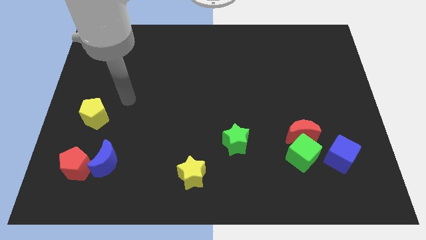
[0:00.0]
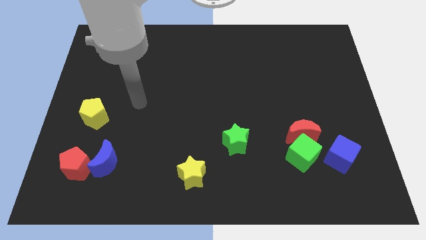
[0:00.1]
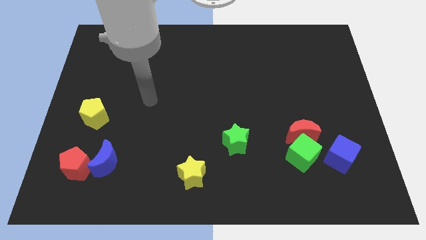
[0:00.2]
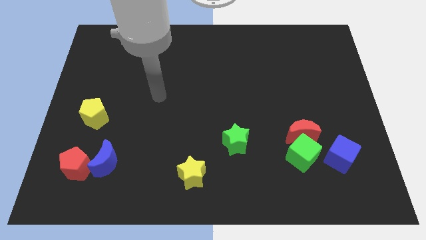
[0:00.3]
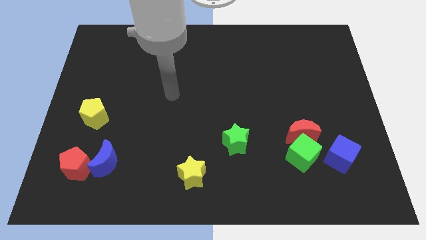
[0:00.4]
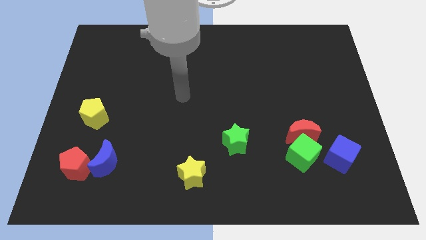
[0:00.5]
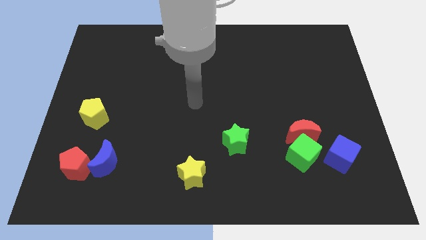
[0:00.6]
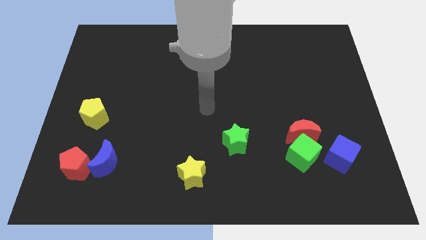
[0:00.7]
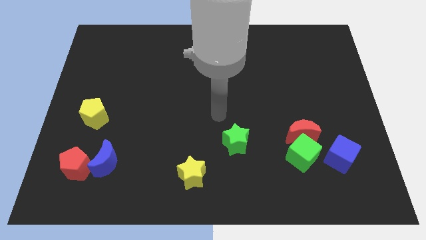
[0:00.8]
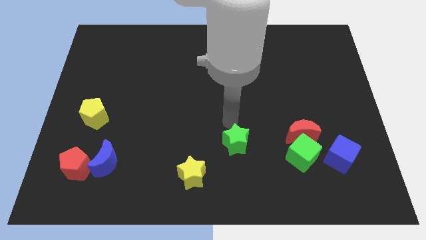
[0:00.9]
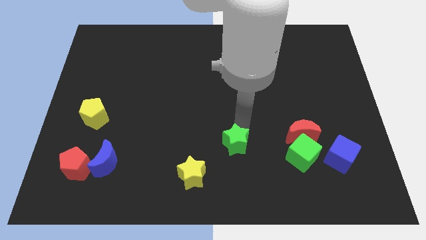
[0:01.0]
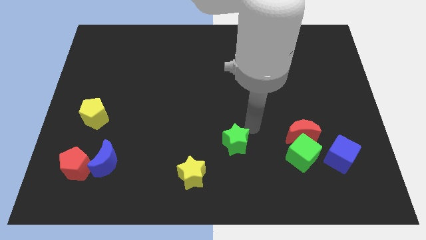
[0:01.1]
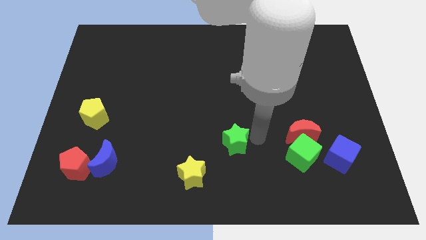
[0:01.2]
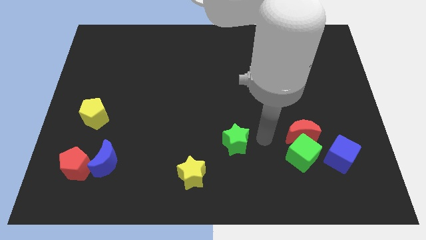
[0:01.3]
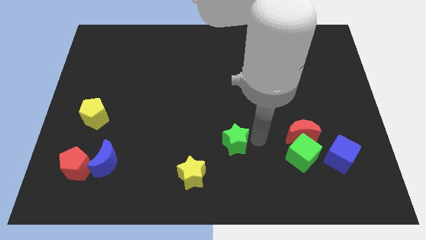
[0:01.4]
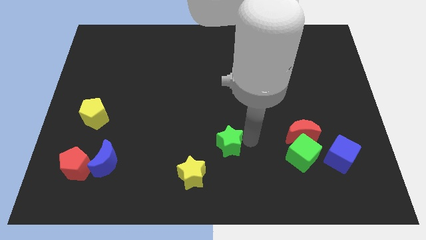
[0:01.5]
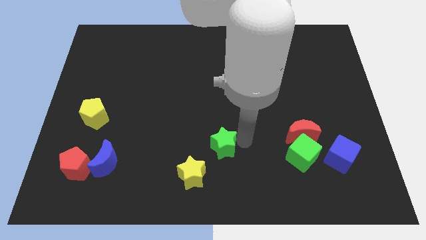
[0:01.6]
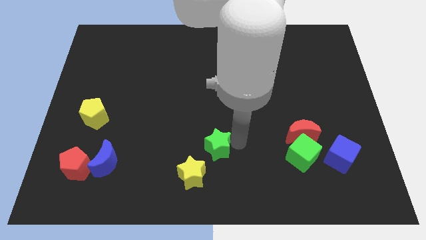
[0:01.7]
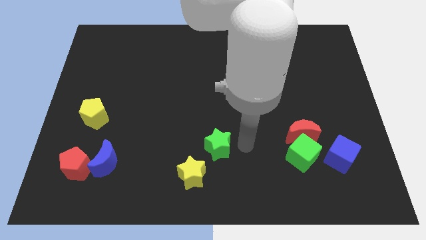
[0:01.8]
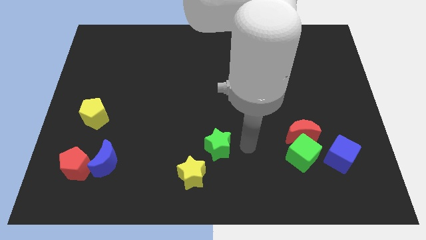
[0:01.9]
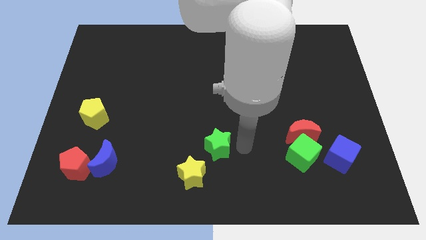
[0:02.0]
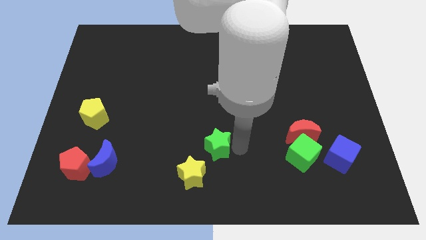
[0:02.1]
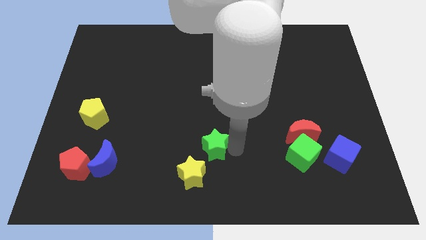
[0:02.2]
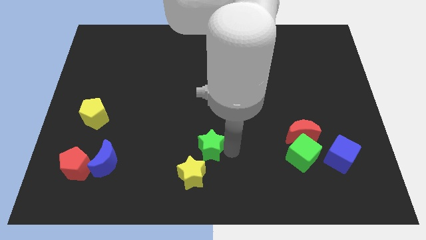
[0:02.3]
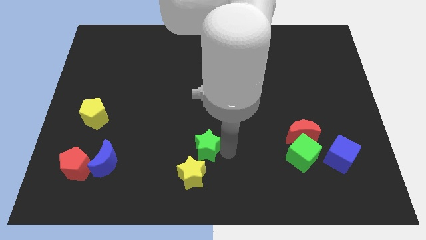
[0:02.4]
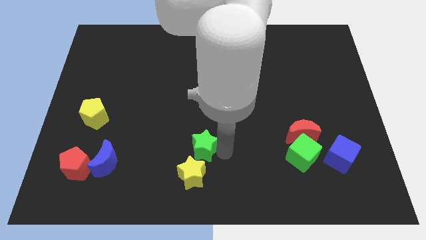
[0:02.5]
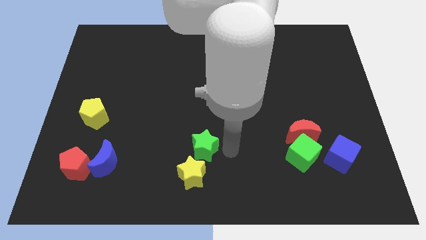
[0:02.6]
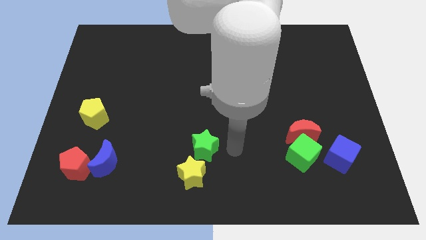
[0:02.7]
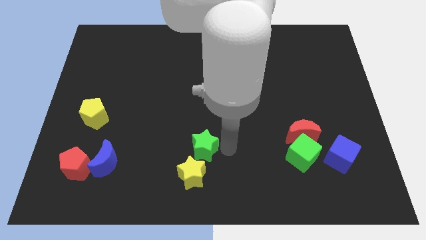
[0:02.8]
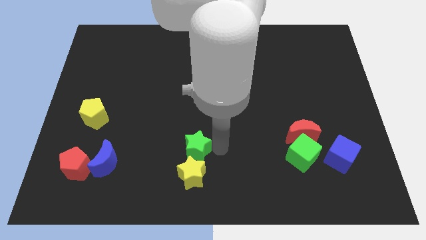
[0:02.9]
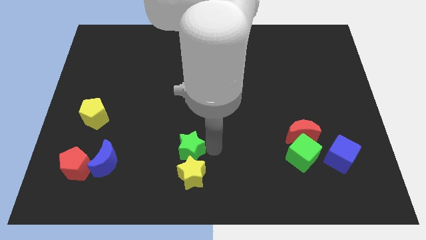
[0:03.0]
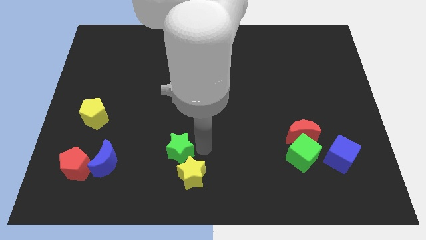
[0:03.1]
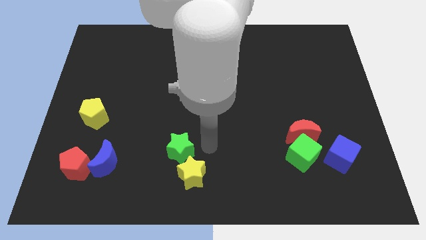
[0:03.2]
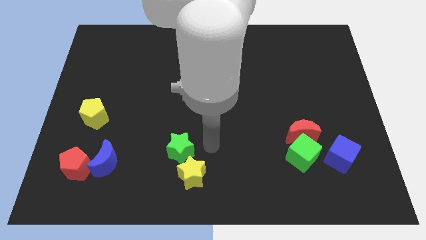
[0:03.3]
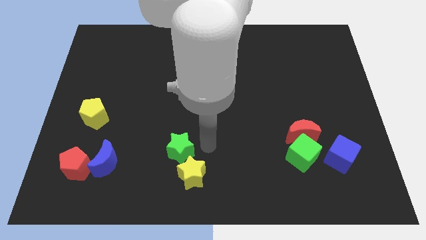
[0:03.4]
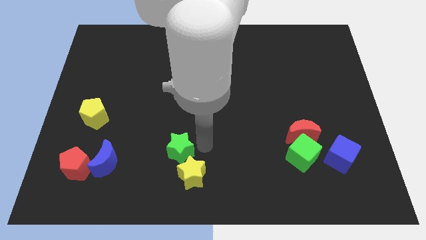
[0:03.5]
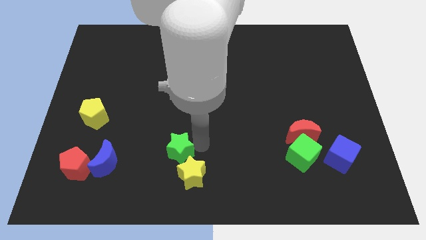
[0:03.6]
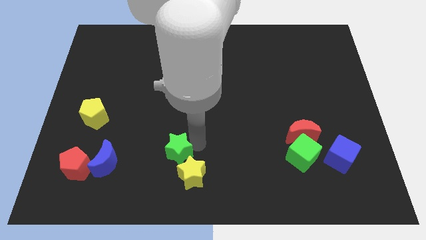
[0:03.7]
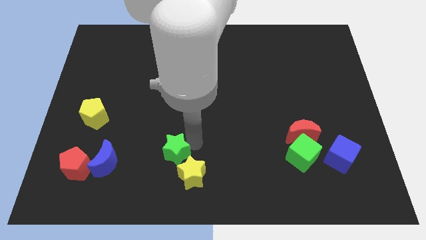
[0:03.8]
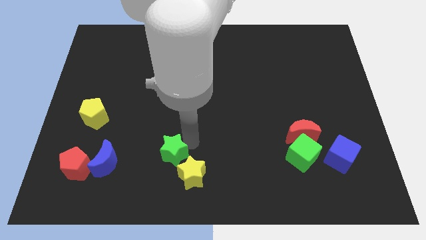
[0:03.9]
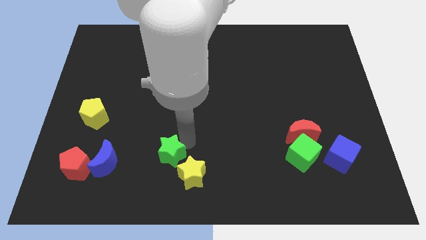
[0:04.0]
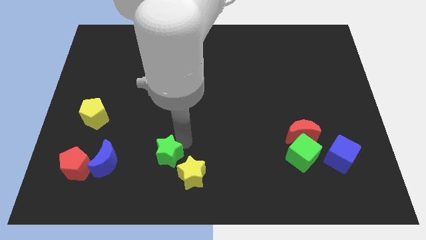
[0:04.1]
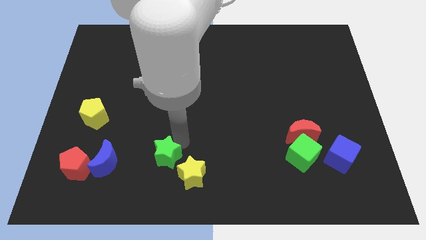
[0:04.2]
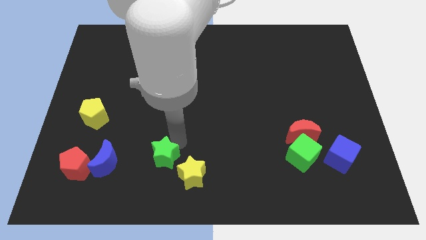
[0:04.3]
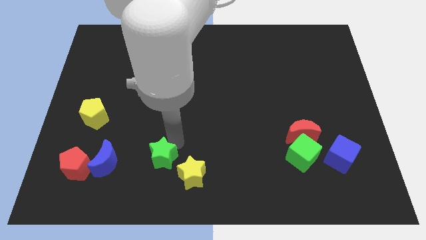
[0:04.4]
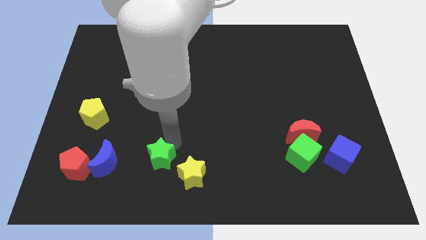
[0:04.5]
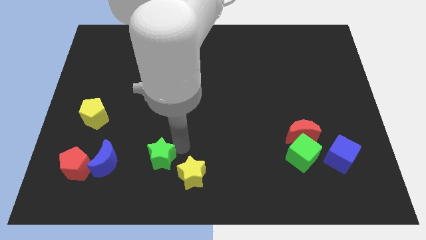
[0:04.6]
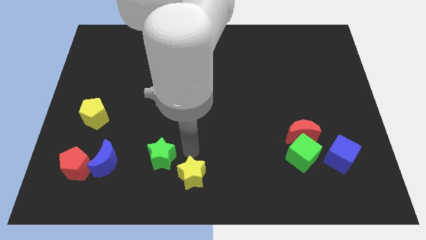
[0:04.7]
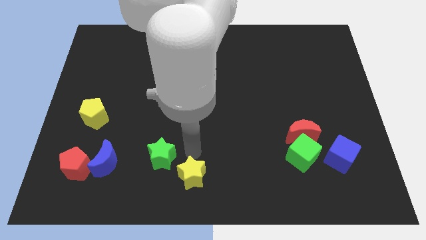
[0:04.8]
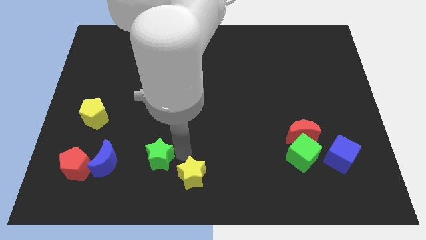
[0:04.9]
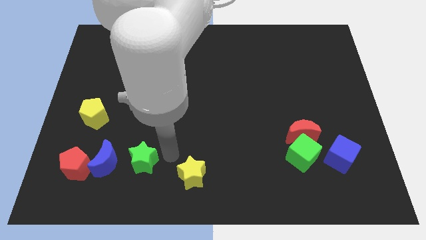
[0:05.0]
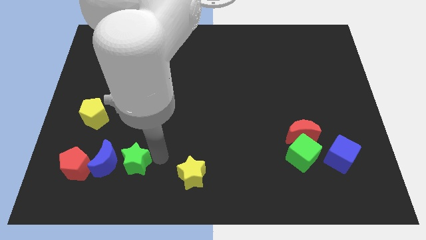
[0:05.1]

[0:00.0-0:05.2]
move the green star next to the blue moon

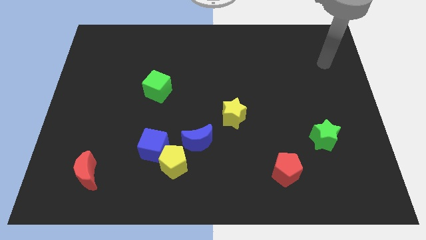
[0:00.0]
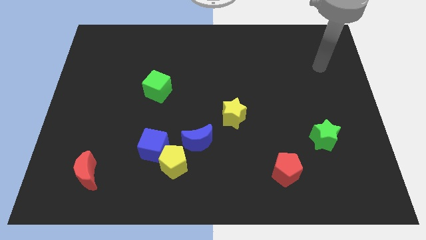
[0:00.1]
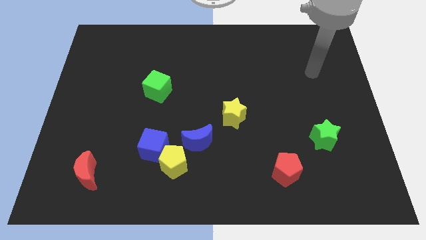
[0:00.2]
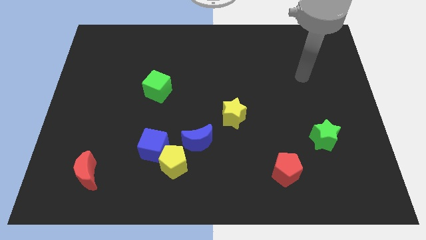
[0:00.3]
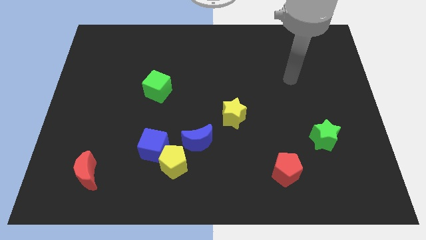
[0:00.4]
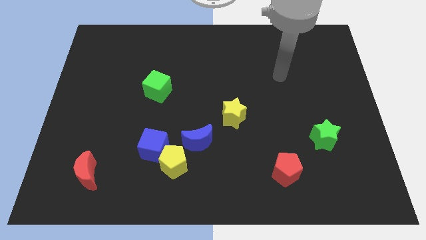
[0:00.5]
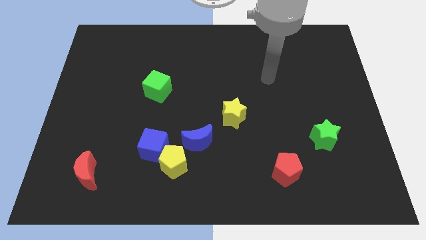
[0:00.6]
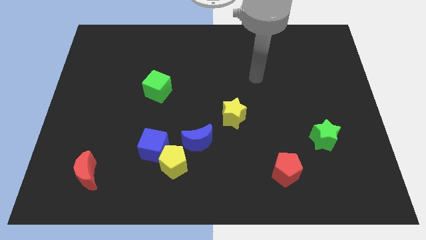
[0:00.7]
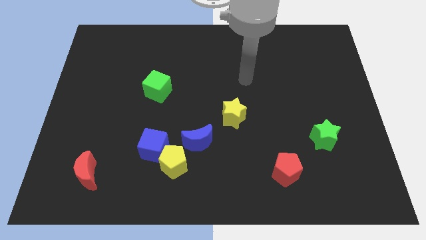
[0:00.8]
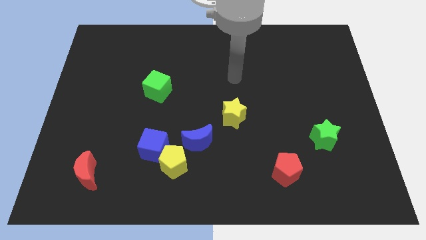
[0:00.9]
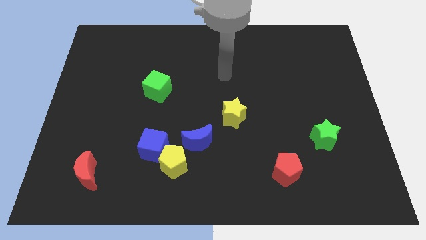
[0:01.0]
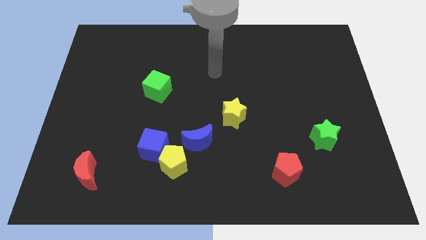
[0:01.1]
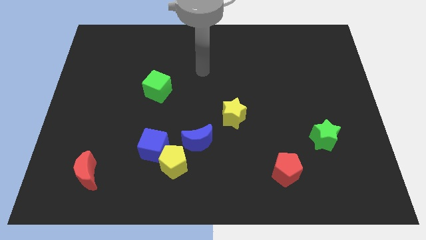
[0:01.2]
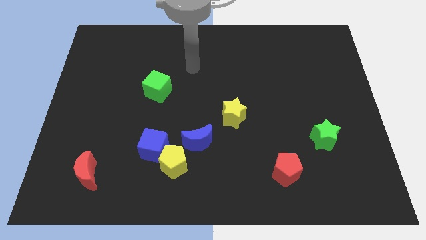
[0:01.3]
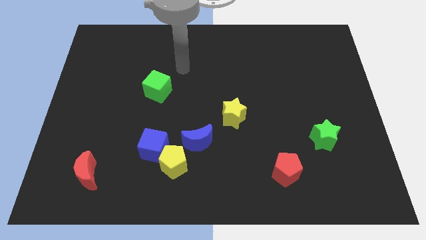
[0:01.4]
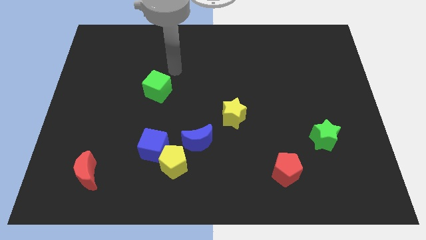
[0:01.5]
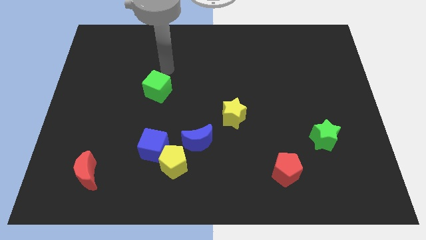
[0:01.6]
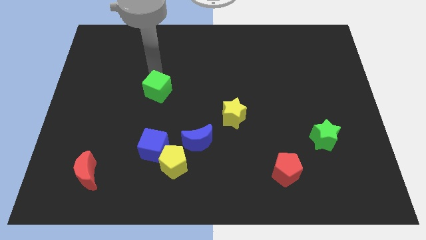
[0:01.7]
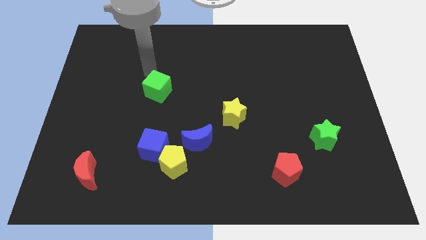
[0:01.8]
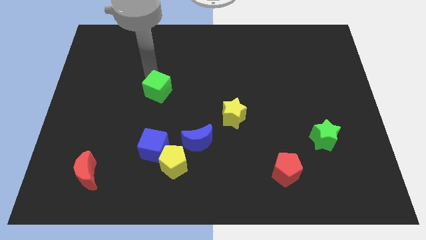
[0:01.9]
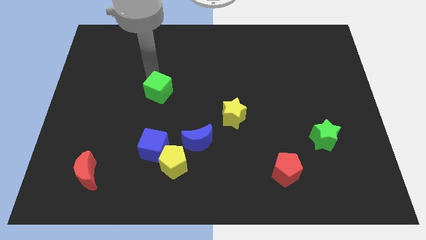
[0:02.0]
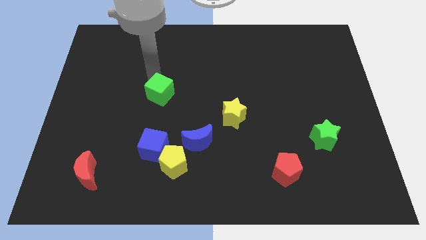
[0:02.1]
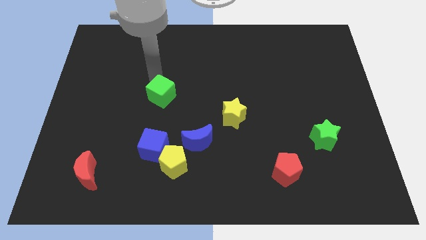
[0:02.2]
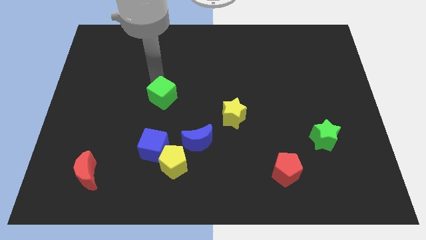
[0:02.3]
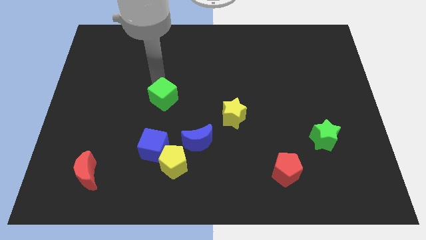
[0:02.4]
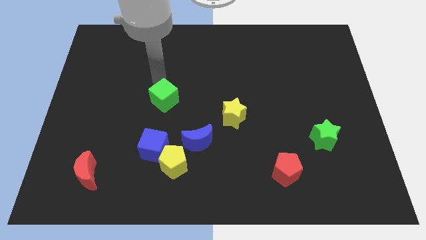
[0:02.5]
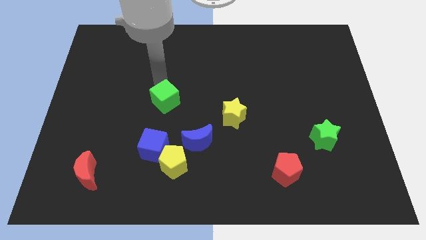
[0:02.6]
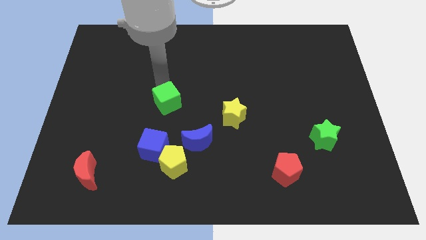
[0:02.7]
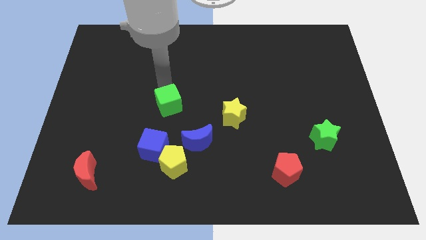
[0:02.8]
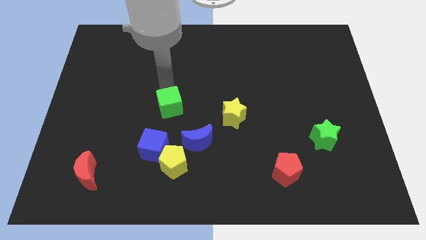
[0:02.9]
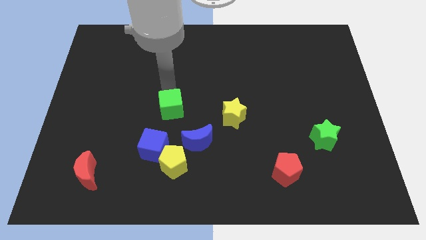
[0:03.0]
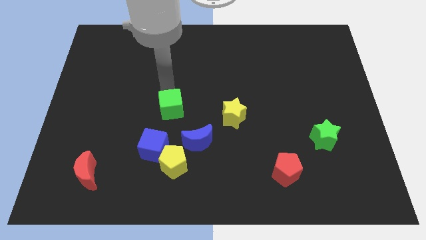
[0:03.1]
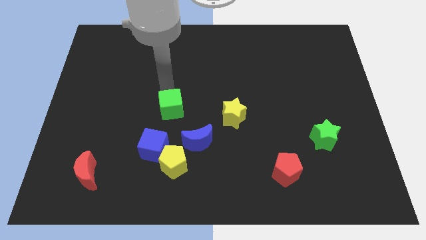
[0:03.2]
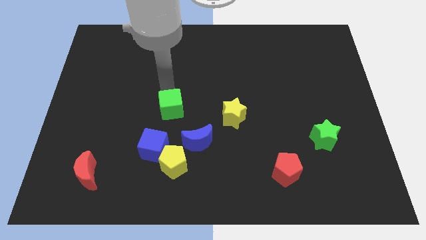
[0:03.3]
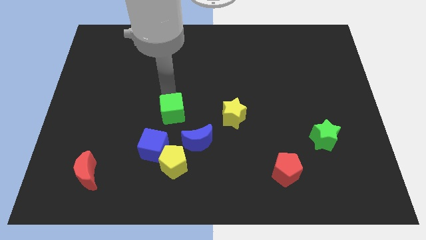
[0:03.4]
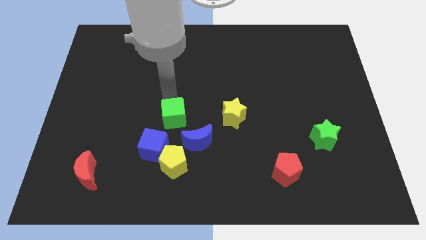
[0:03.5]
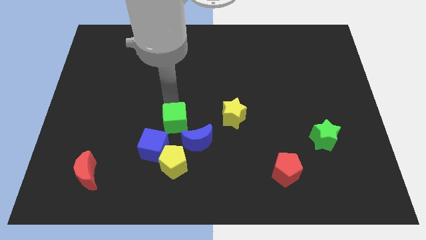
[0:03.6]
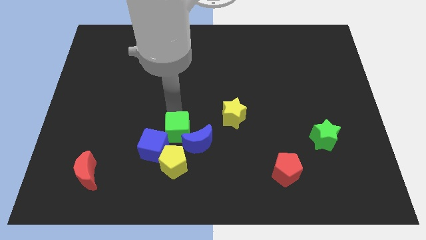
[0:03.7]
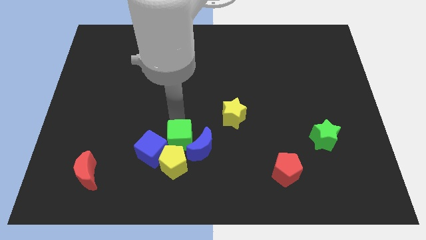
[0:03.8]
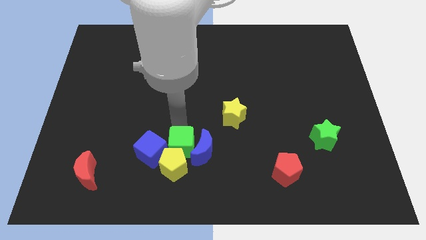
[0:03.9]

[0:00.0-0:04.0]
move the green cube towards the yellow pentagon
